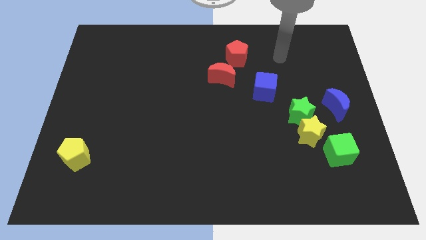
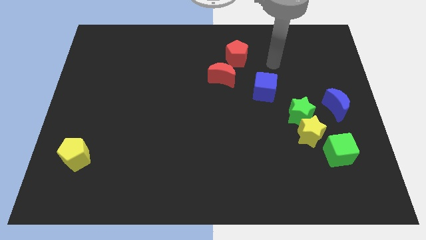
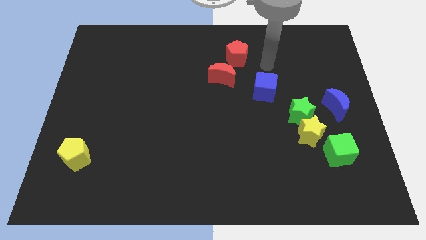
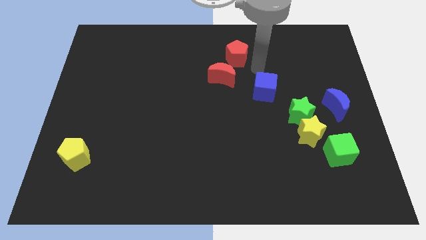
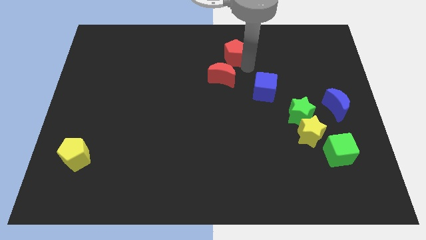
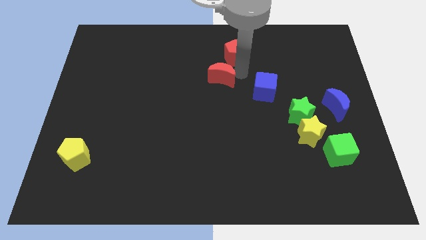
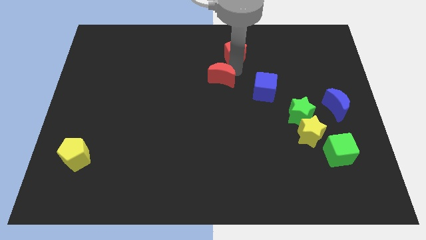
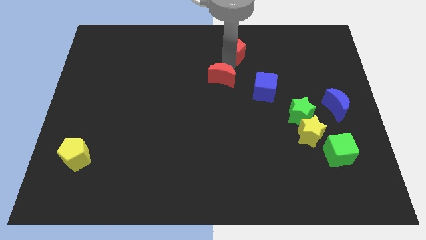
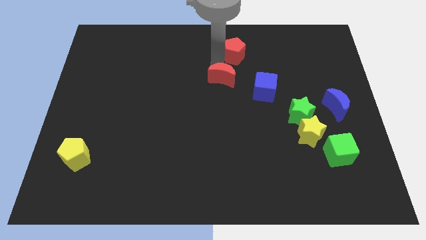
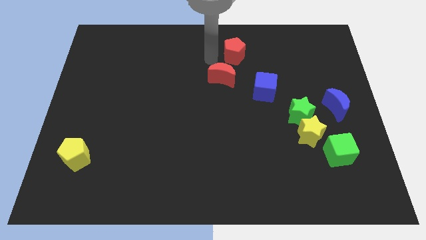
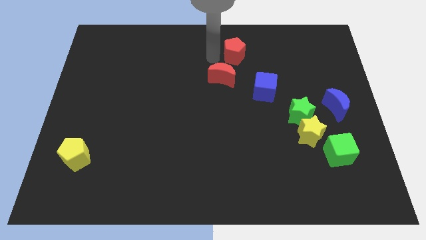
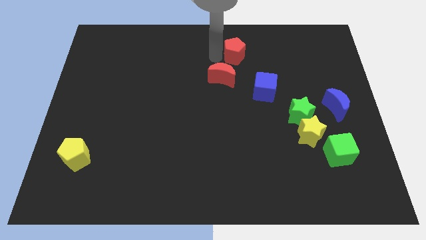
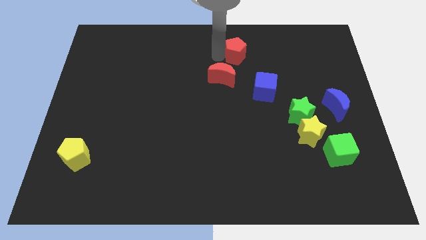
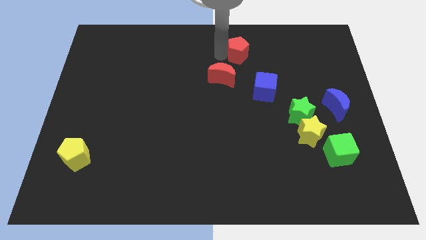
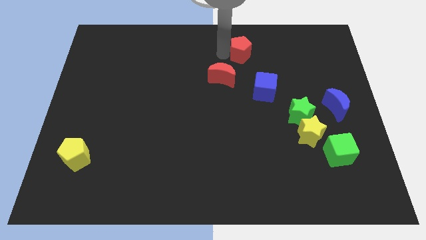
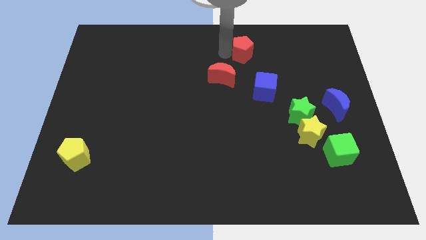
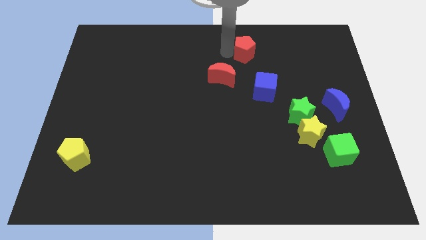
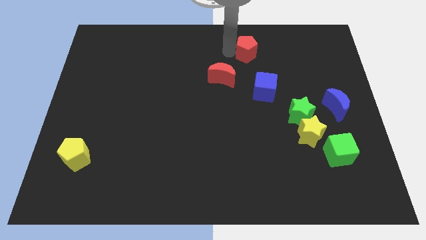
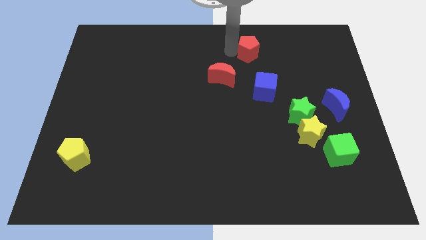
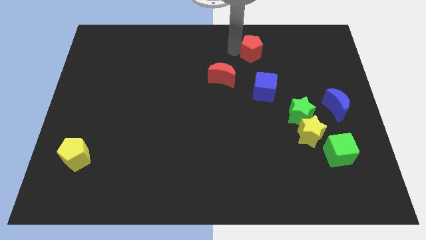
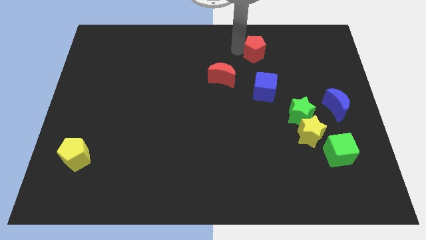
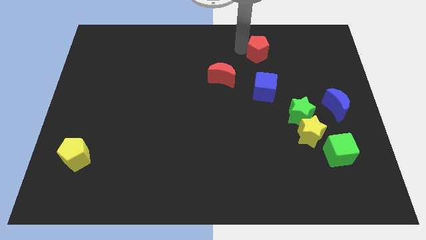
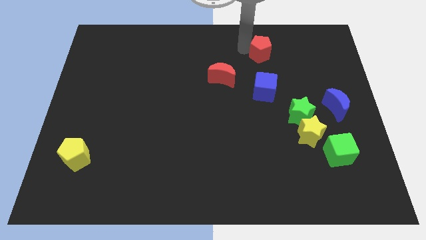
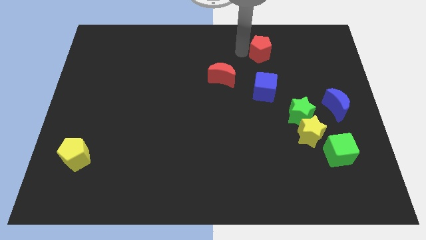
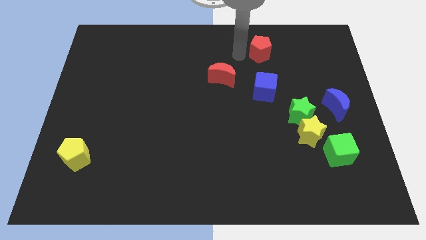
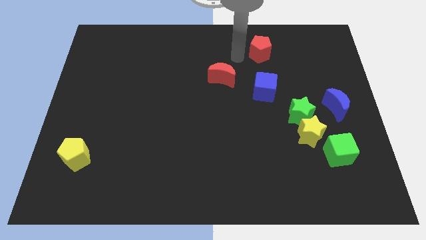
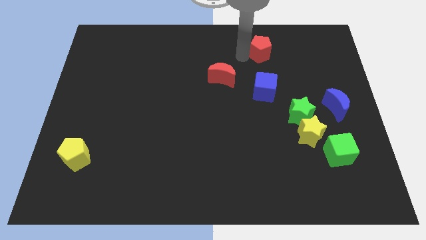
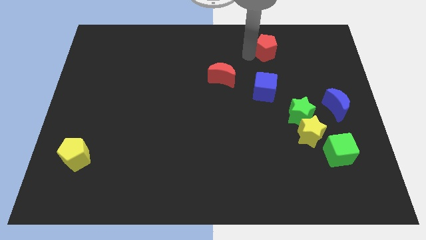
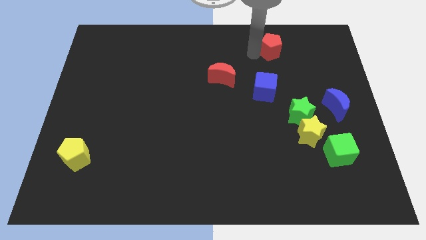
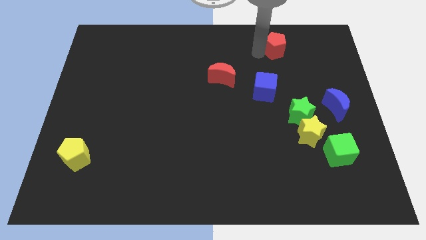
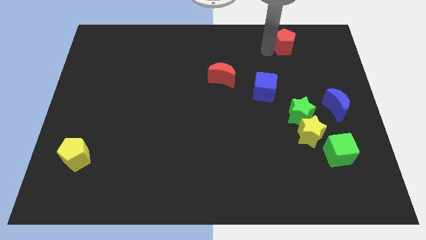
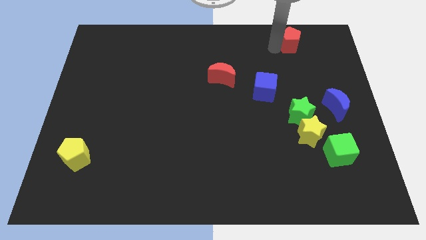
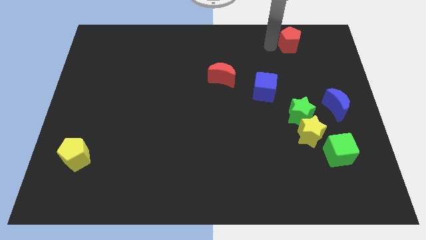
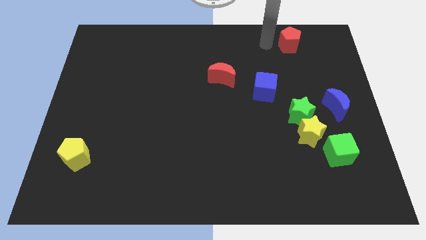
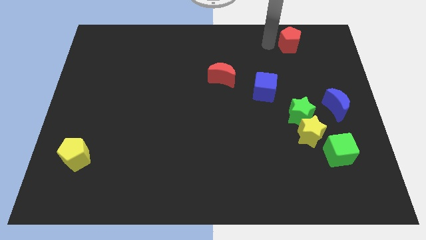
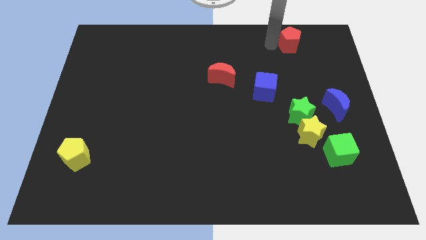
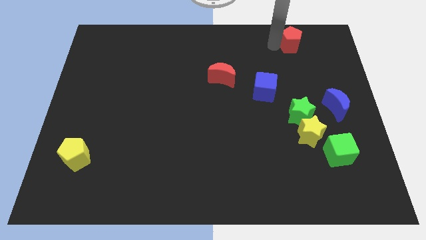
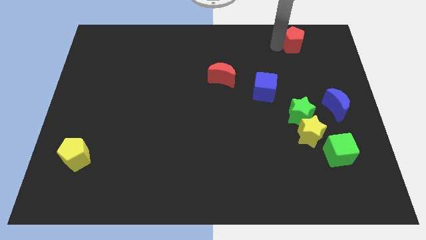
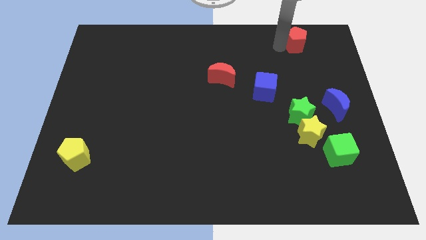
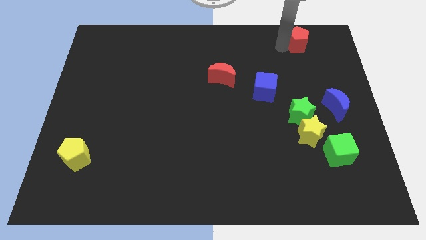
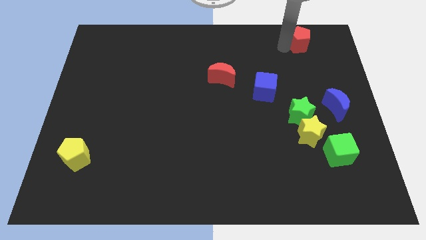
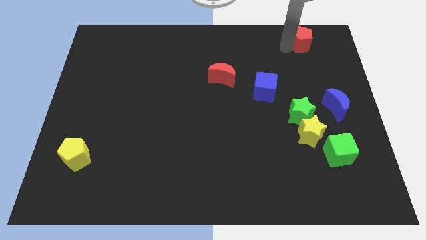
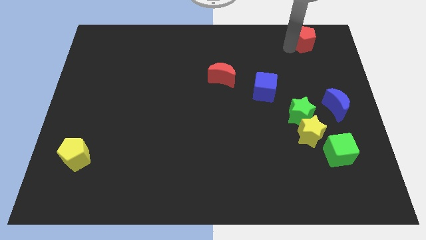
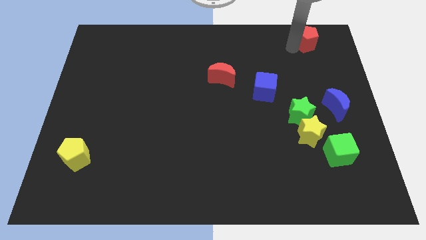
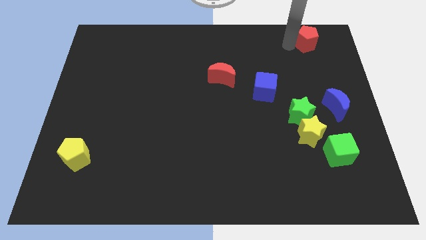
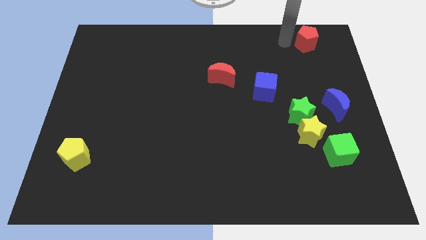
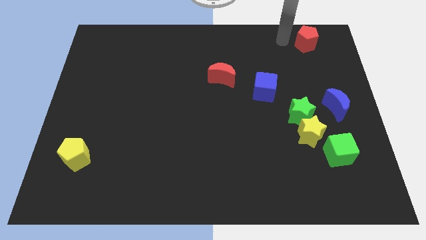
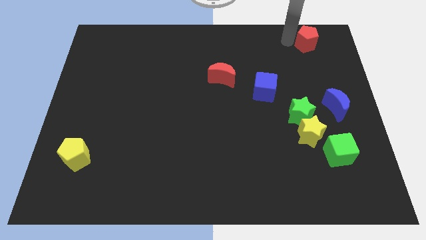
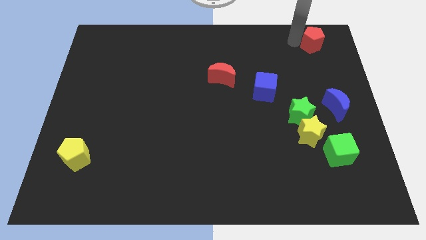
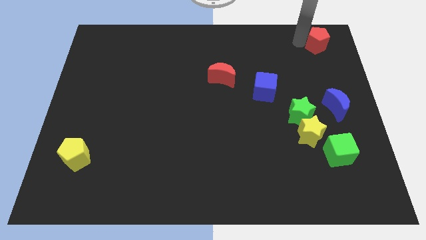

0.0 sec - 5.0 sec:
push the red pentagon to the top right
